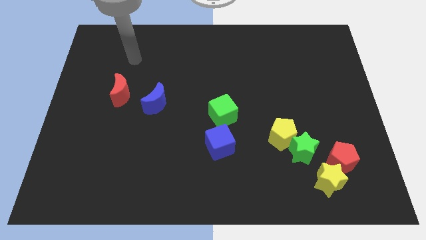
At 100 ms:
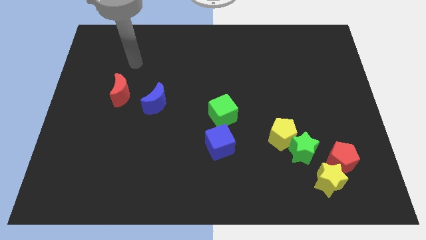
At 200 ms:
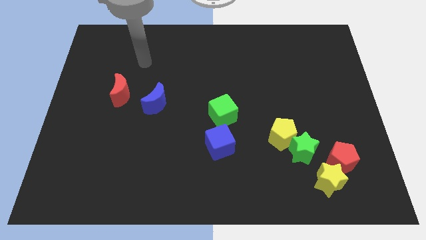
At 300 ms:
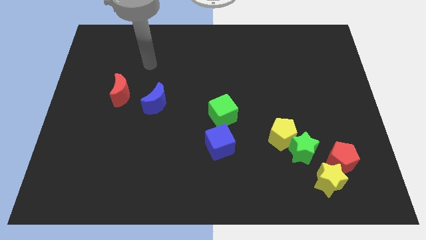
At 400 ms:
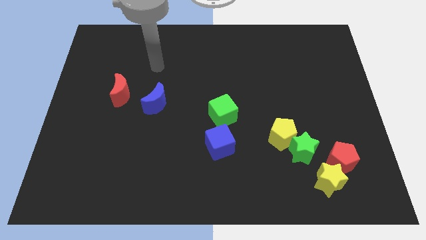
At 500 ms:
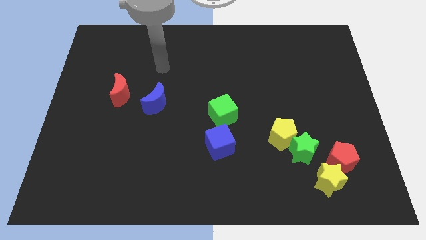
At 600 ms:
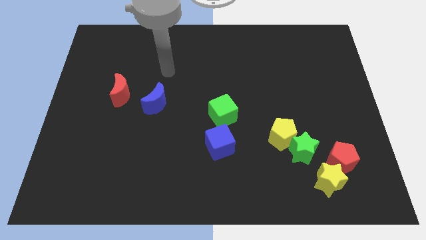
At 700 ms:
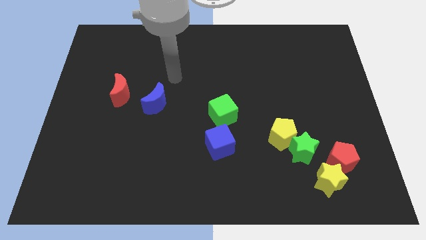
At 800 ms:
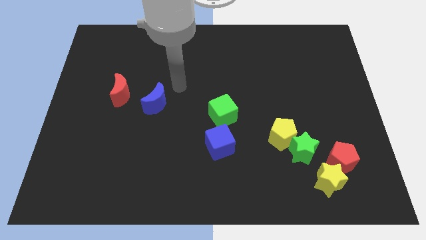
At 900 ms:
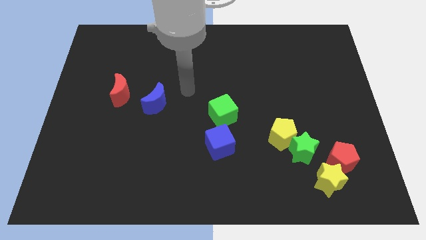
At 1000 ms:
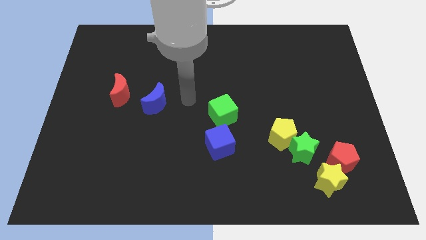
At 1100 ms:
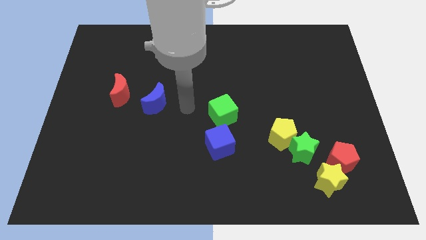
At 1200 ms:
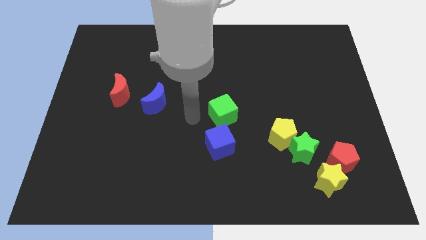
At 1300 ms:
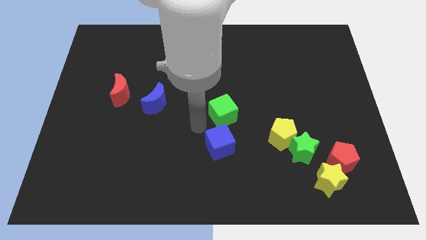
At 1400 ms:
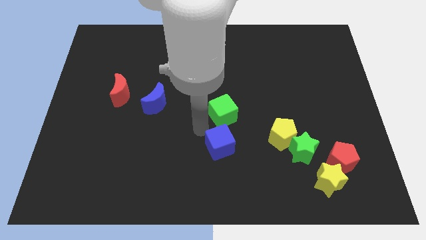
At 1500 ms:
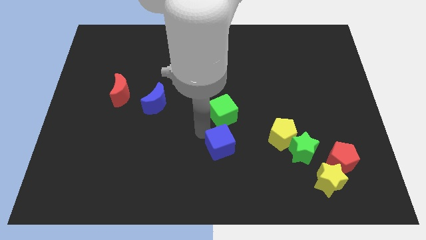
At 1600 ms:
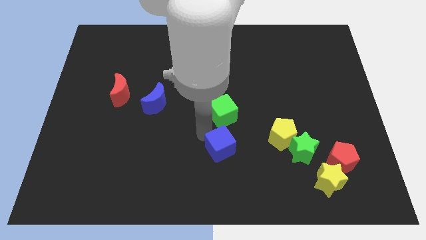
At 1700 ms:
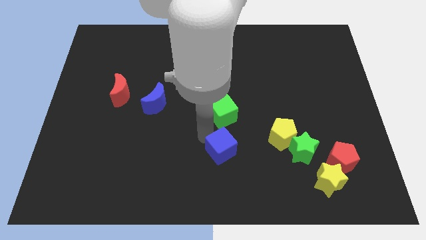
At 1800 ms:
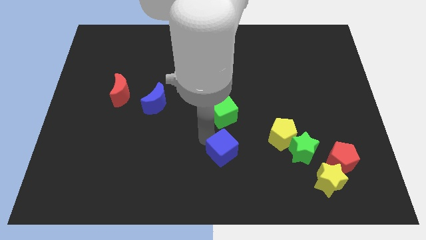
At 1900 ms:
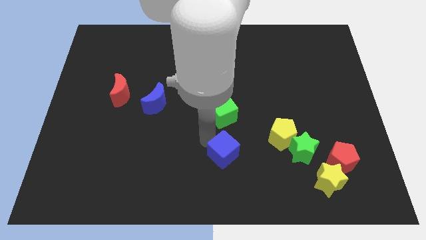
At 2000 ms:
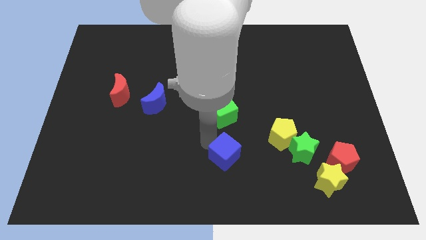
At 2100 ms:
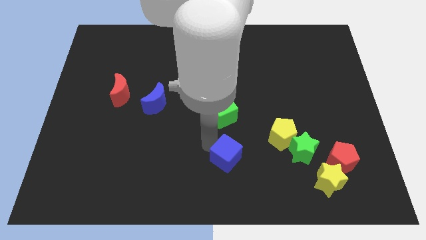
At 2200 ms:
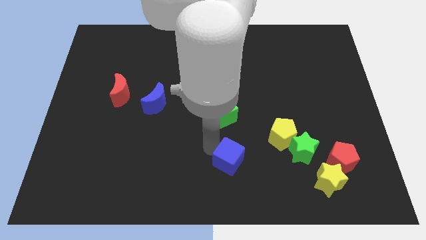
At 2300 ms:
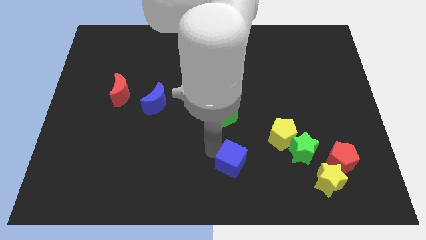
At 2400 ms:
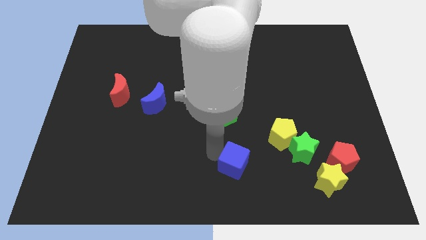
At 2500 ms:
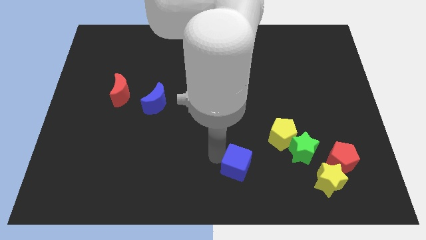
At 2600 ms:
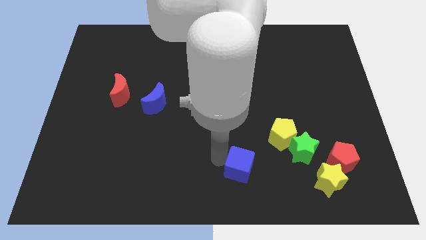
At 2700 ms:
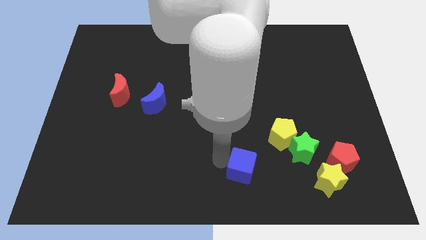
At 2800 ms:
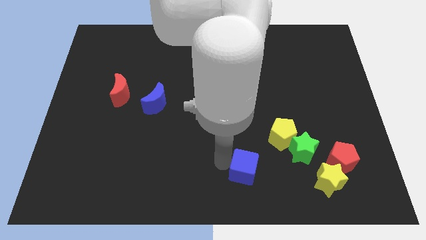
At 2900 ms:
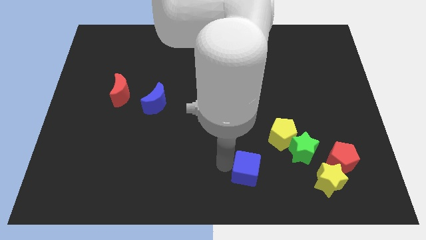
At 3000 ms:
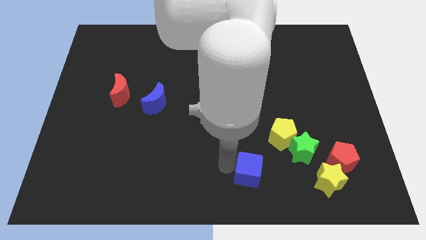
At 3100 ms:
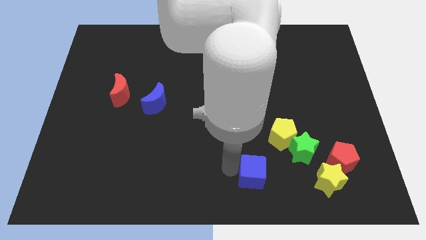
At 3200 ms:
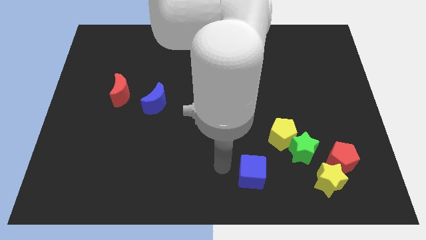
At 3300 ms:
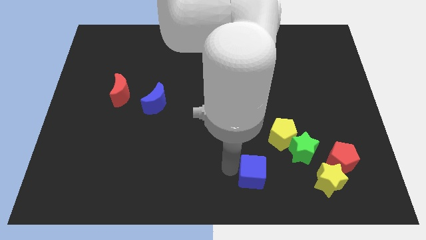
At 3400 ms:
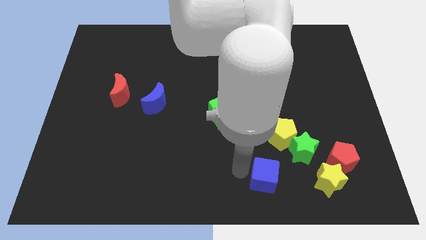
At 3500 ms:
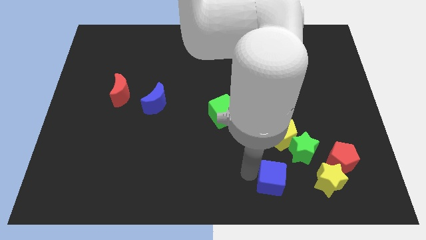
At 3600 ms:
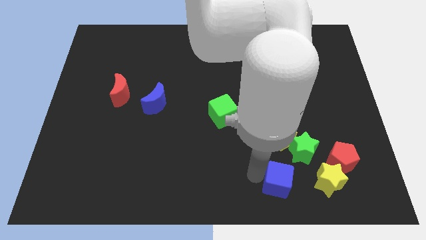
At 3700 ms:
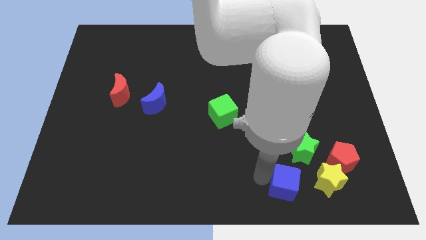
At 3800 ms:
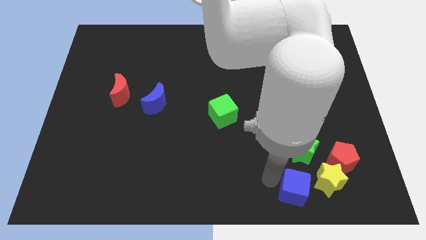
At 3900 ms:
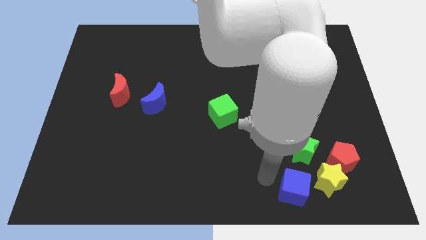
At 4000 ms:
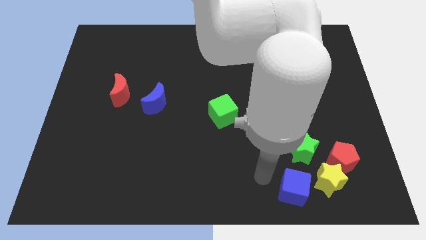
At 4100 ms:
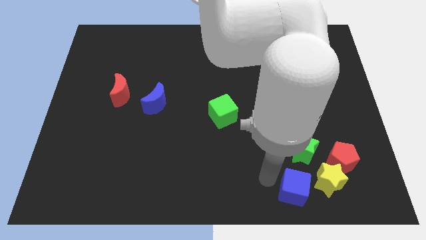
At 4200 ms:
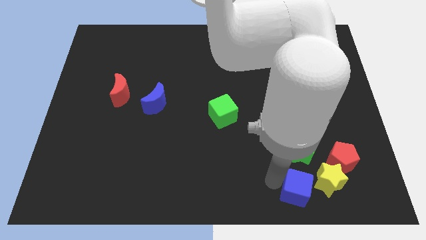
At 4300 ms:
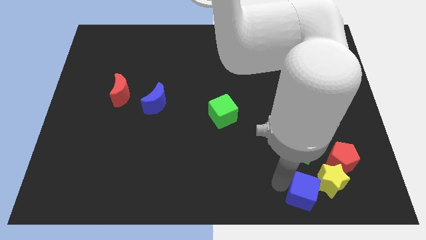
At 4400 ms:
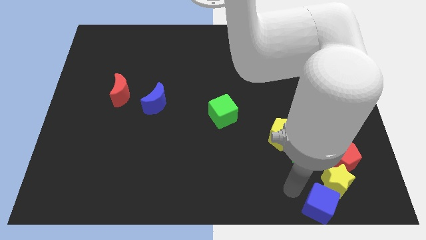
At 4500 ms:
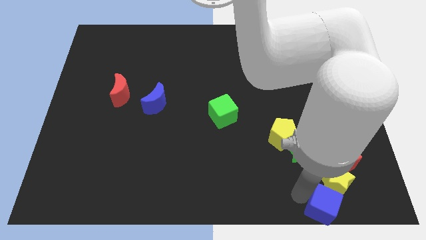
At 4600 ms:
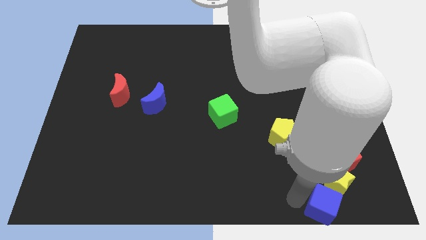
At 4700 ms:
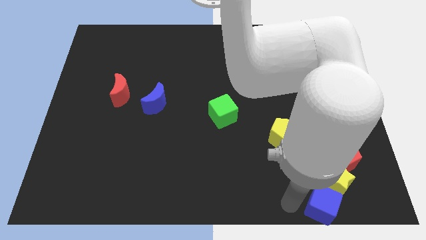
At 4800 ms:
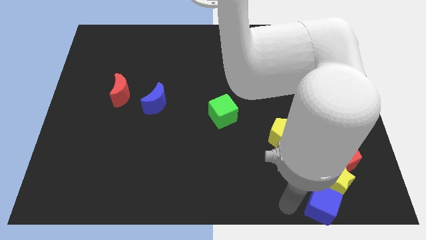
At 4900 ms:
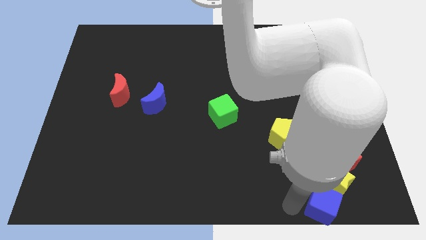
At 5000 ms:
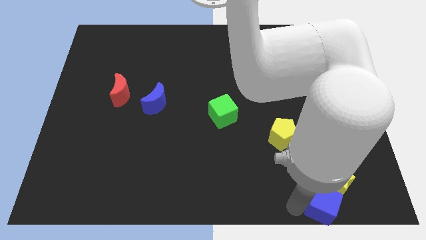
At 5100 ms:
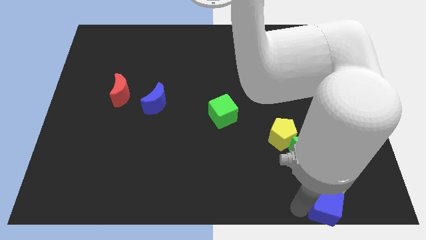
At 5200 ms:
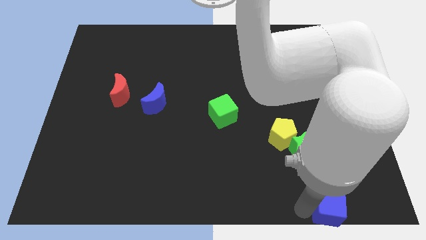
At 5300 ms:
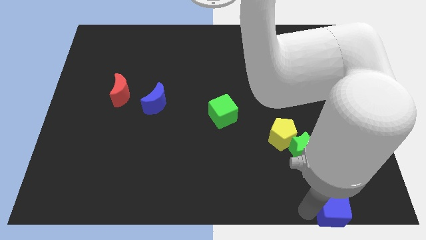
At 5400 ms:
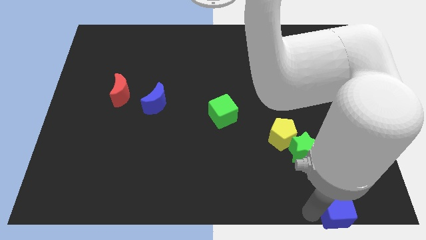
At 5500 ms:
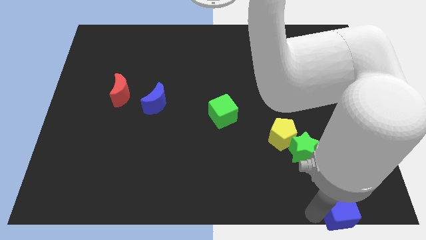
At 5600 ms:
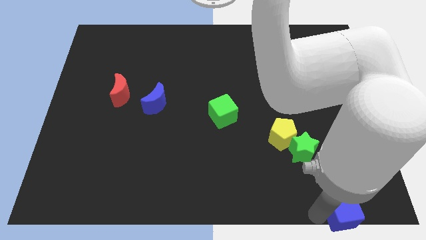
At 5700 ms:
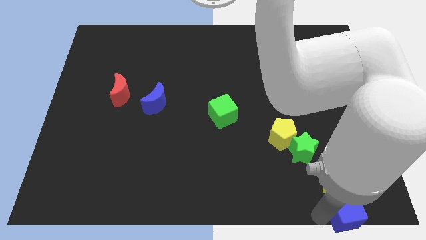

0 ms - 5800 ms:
move the blue cube to the bottom right

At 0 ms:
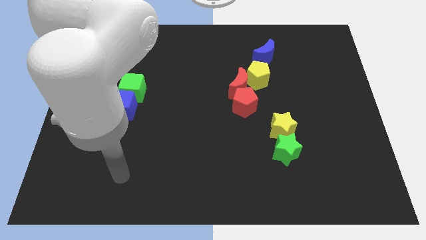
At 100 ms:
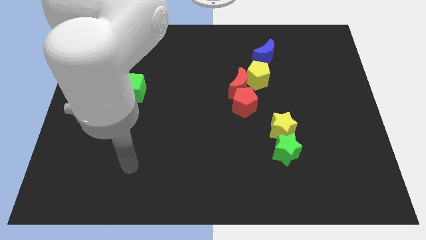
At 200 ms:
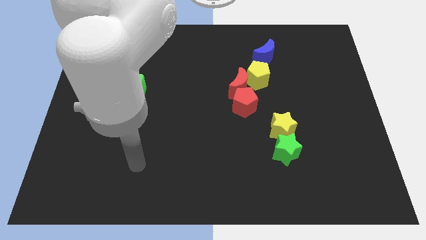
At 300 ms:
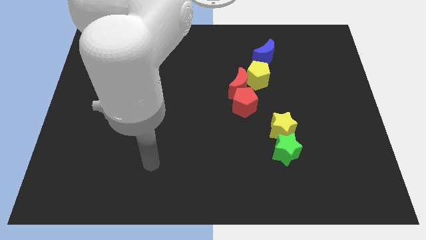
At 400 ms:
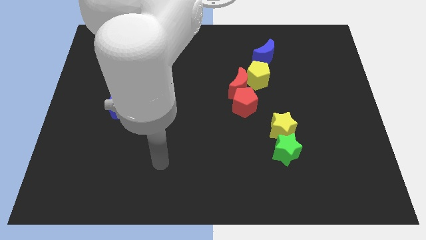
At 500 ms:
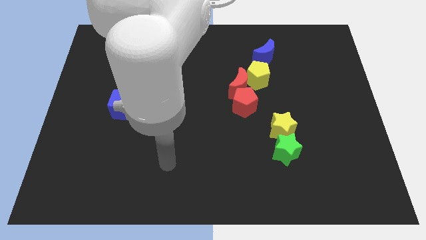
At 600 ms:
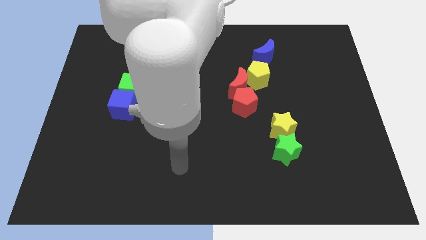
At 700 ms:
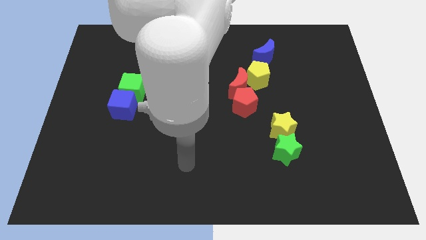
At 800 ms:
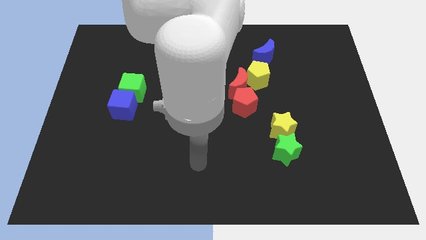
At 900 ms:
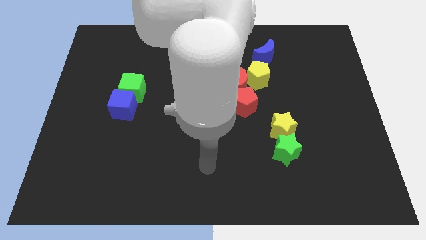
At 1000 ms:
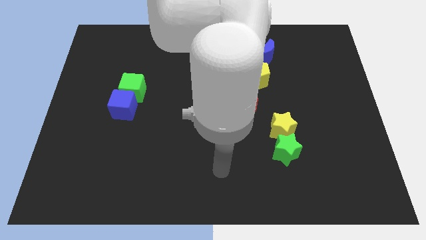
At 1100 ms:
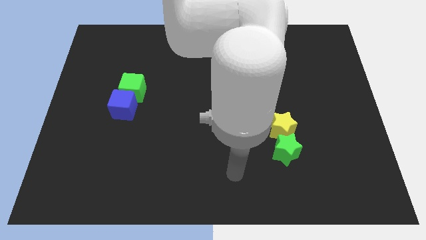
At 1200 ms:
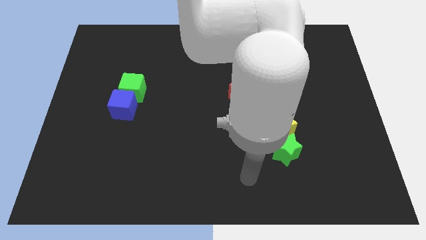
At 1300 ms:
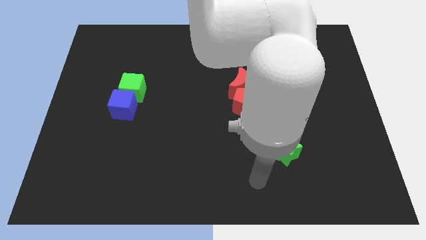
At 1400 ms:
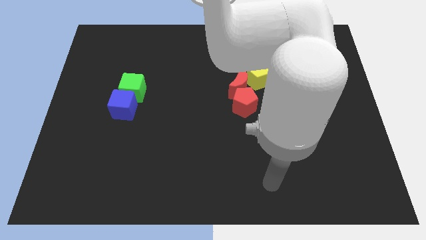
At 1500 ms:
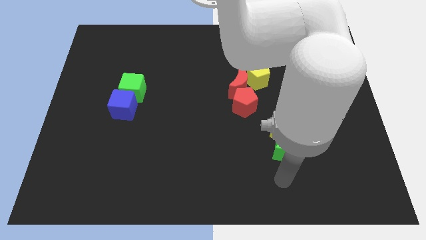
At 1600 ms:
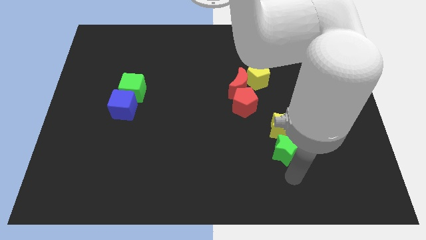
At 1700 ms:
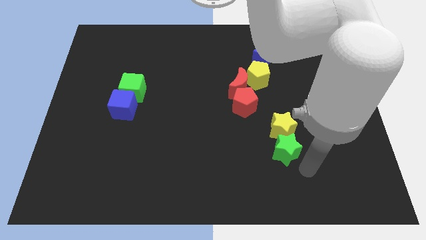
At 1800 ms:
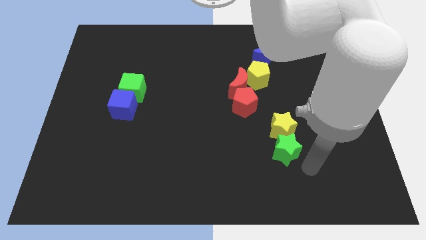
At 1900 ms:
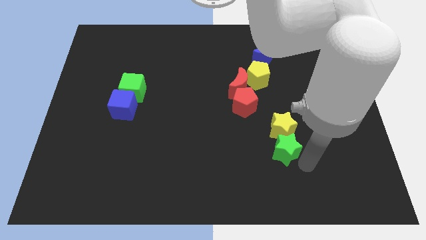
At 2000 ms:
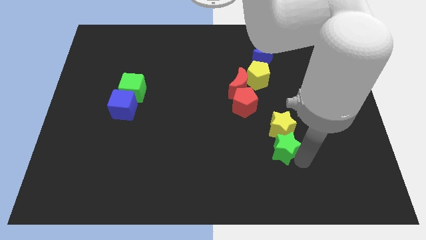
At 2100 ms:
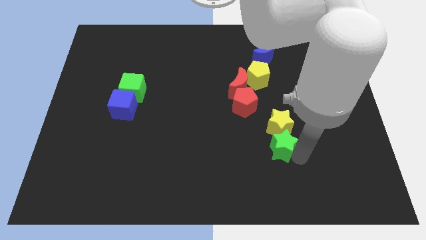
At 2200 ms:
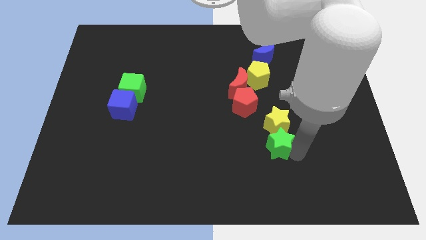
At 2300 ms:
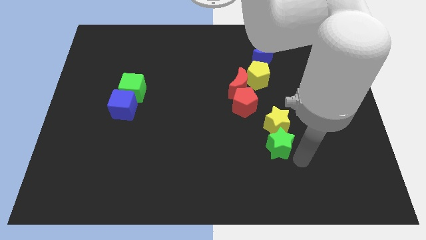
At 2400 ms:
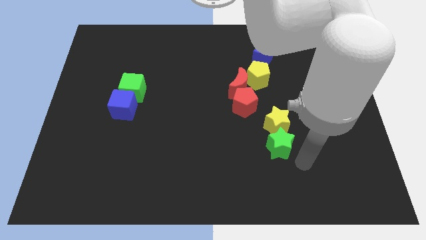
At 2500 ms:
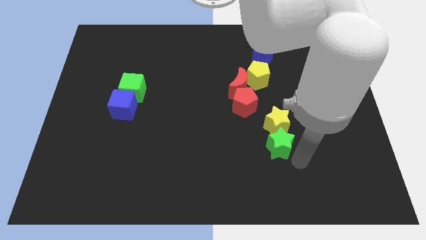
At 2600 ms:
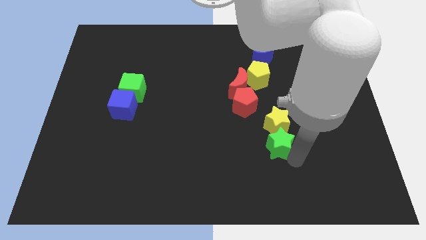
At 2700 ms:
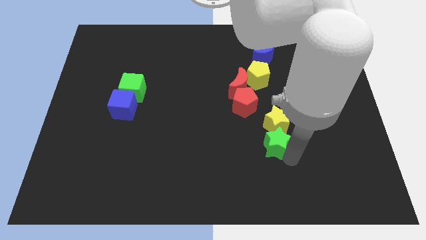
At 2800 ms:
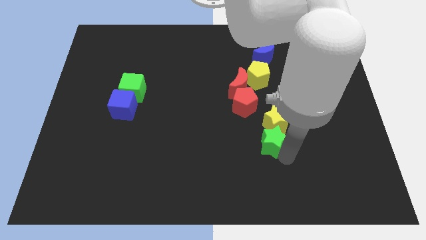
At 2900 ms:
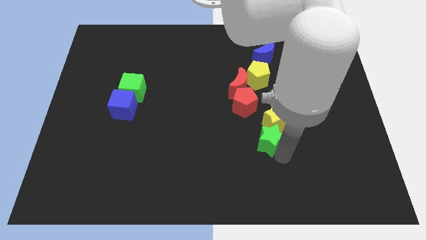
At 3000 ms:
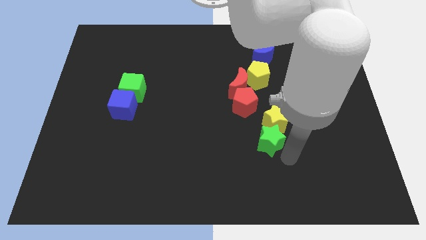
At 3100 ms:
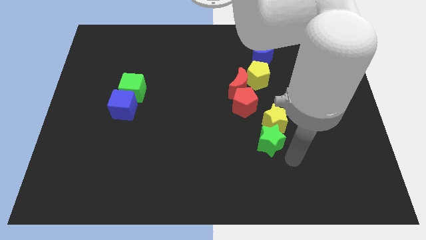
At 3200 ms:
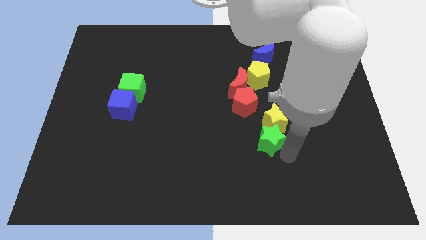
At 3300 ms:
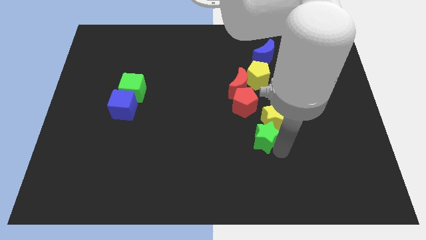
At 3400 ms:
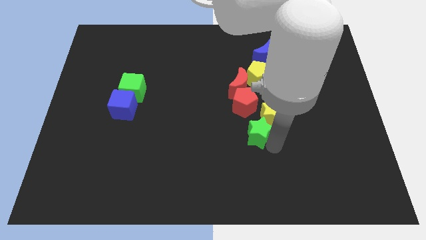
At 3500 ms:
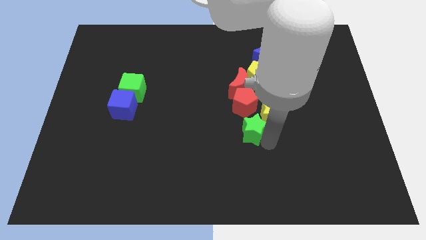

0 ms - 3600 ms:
move the green star to the middle
